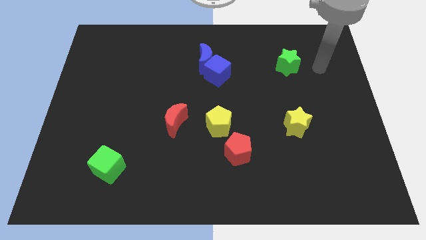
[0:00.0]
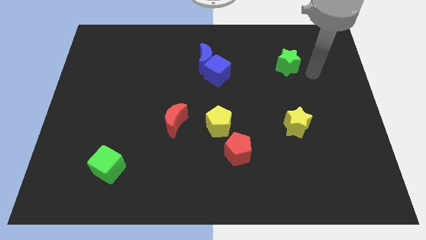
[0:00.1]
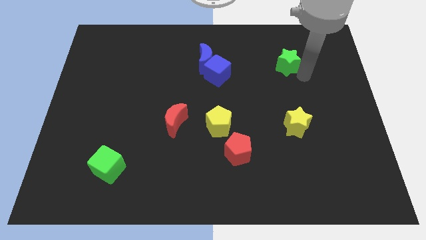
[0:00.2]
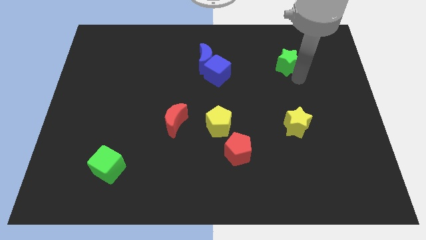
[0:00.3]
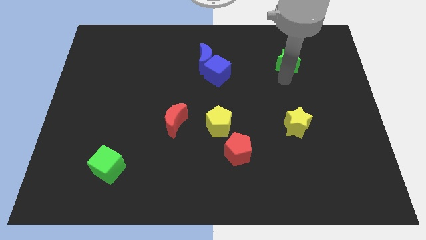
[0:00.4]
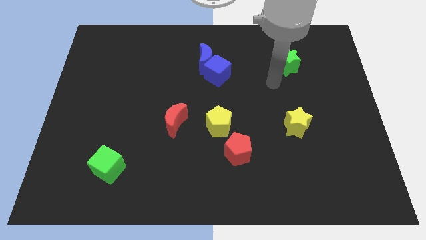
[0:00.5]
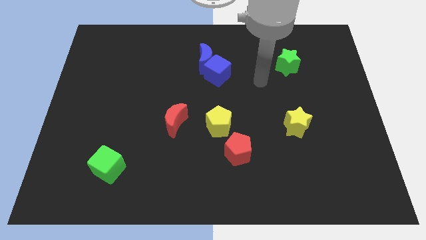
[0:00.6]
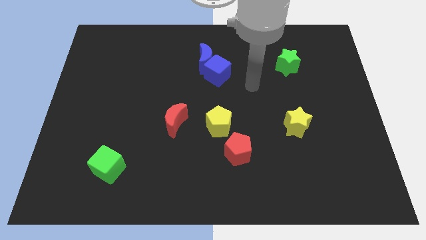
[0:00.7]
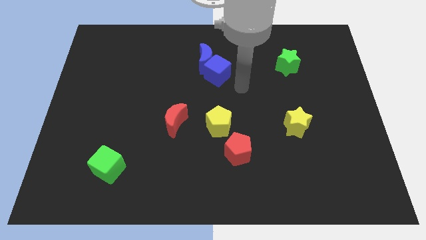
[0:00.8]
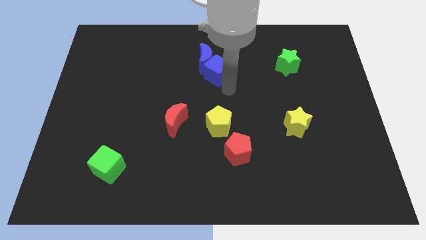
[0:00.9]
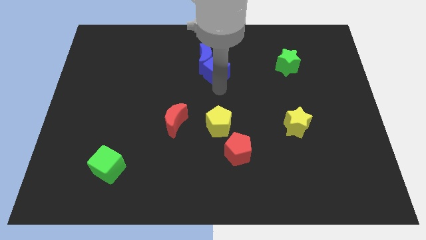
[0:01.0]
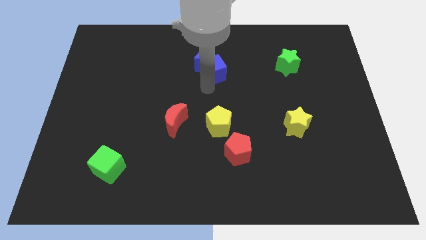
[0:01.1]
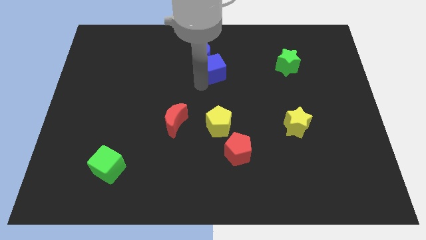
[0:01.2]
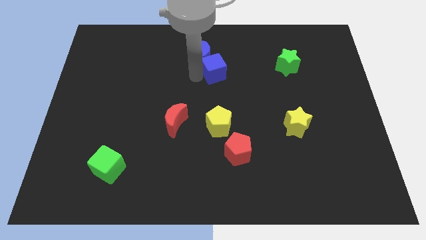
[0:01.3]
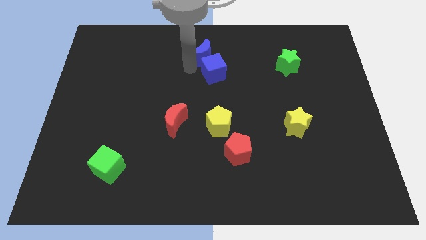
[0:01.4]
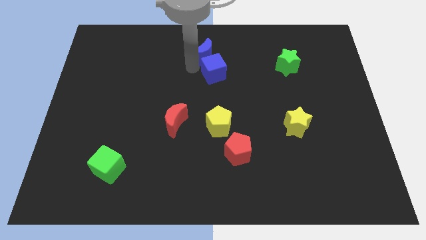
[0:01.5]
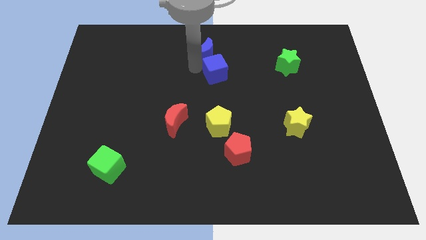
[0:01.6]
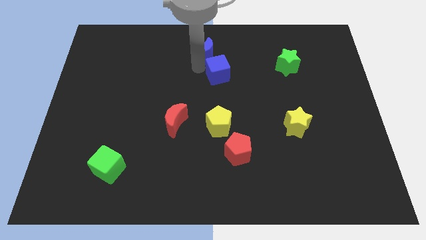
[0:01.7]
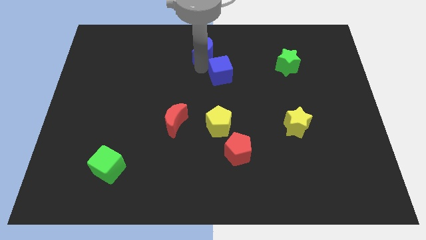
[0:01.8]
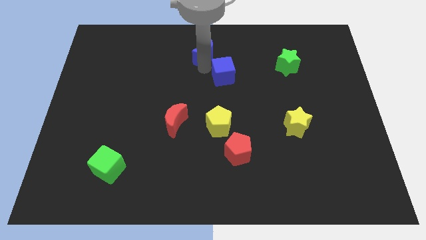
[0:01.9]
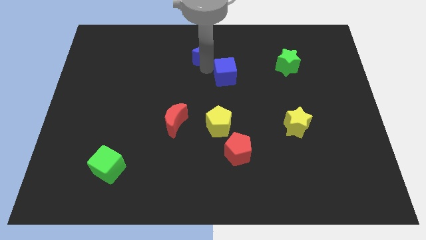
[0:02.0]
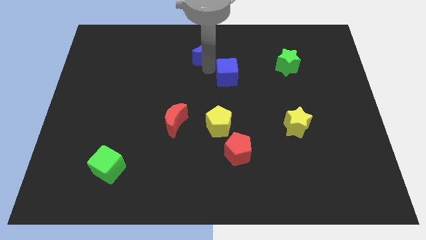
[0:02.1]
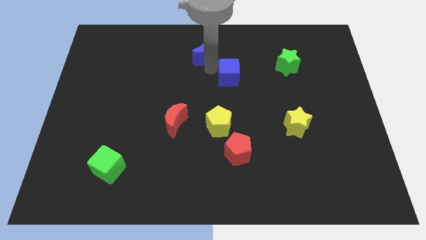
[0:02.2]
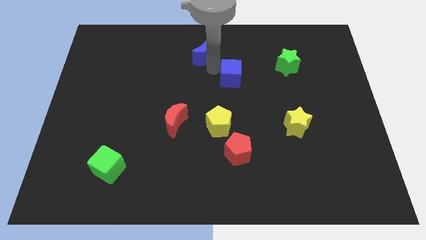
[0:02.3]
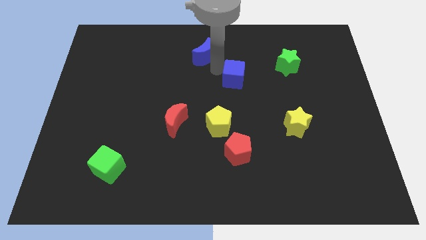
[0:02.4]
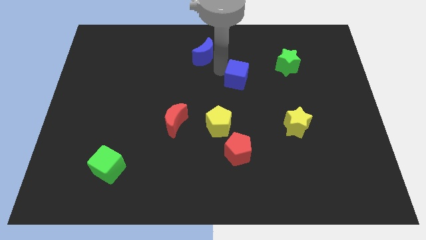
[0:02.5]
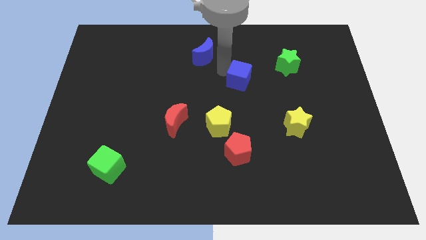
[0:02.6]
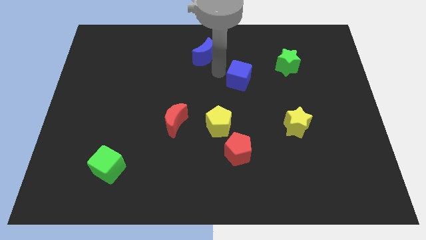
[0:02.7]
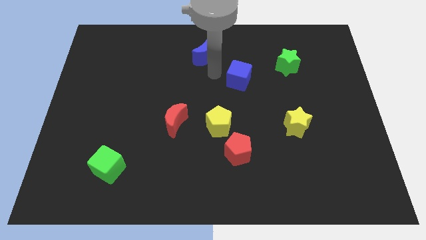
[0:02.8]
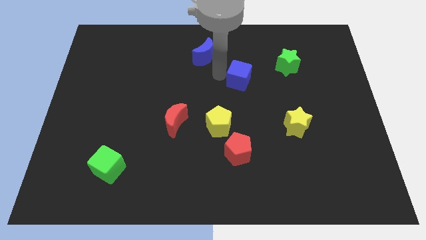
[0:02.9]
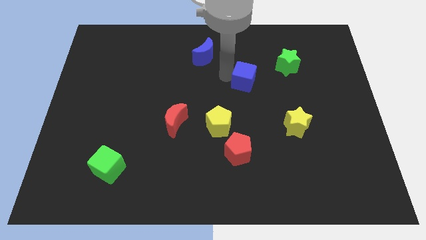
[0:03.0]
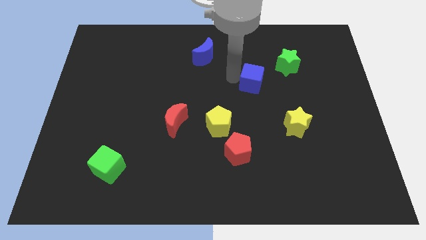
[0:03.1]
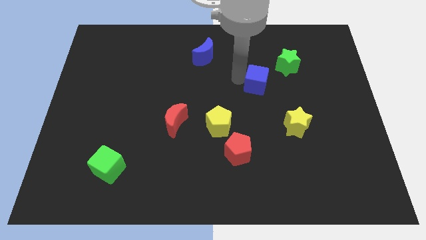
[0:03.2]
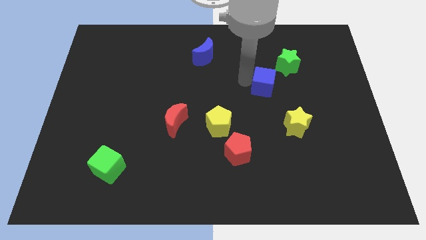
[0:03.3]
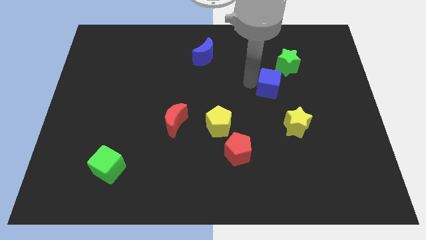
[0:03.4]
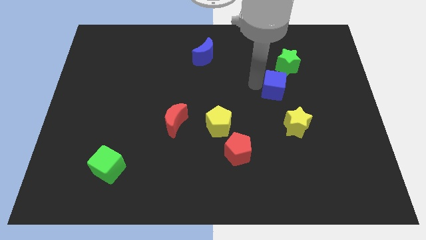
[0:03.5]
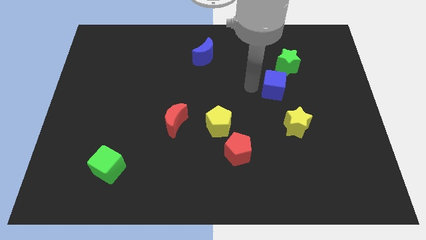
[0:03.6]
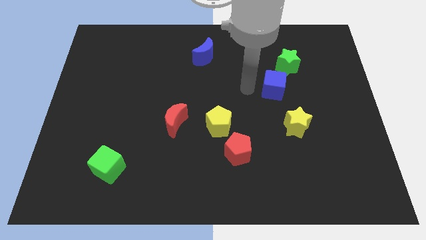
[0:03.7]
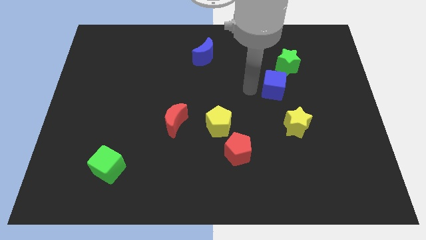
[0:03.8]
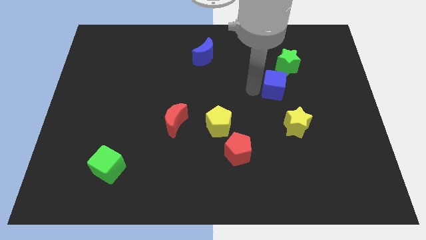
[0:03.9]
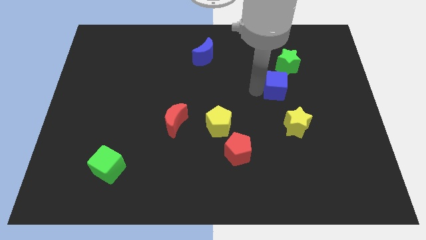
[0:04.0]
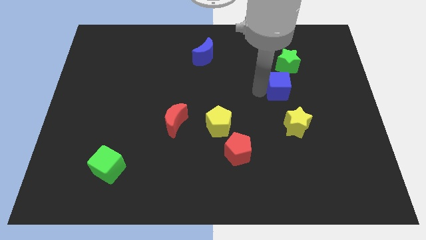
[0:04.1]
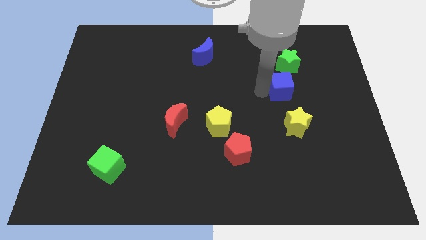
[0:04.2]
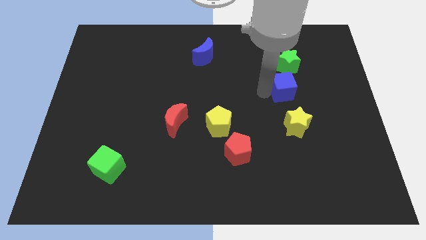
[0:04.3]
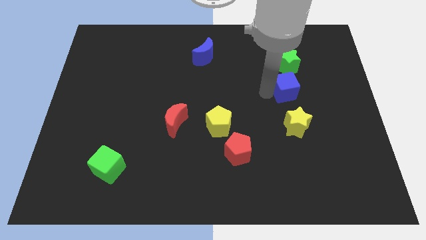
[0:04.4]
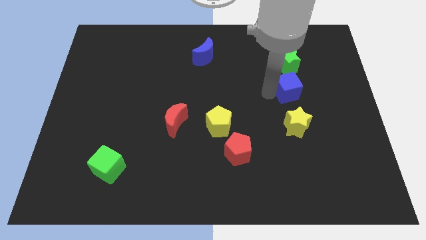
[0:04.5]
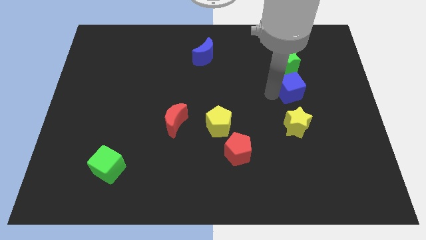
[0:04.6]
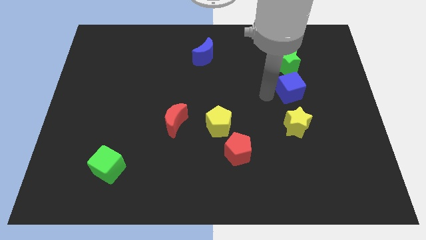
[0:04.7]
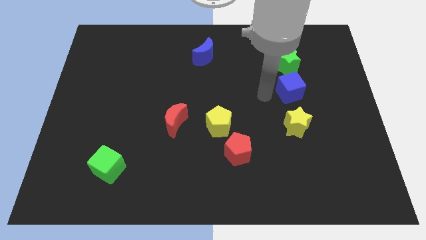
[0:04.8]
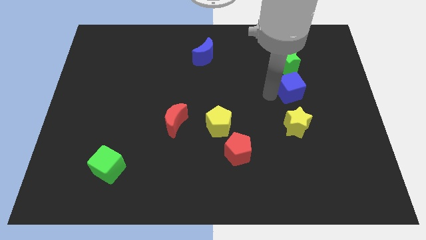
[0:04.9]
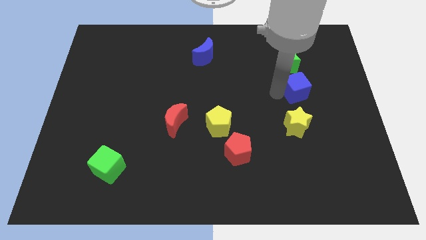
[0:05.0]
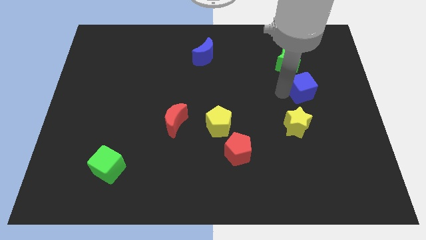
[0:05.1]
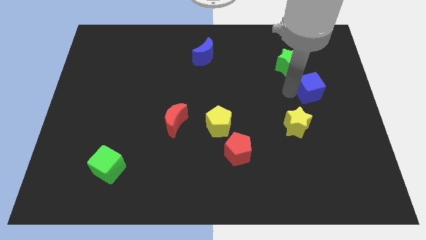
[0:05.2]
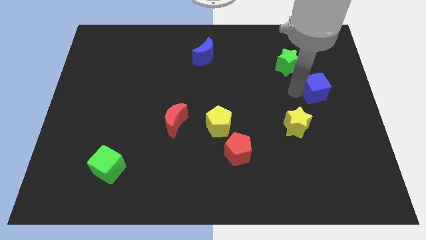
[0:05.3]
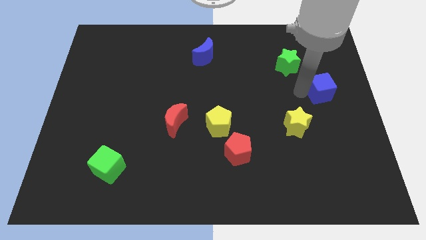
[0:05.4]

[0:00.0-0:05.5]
put the blue cube to the right side

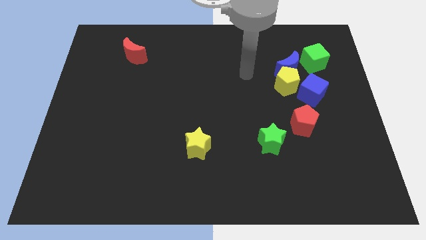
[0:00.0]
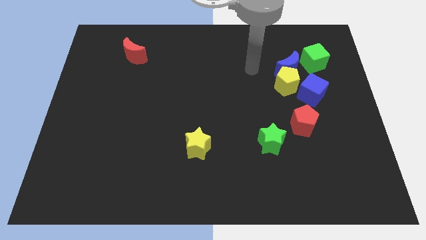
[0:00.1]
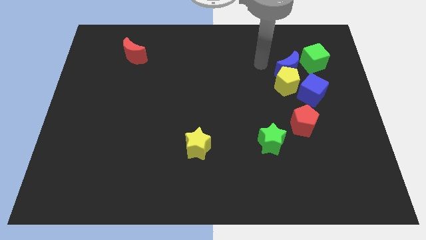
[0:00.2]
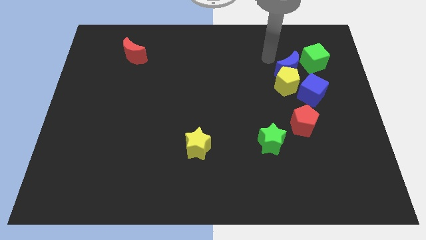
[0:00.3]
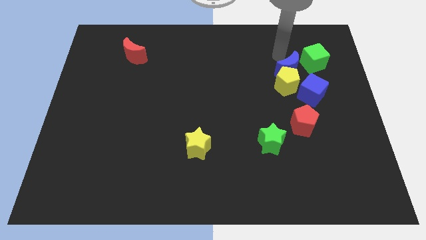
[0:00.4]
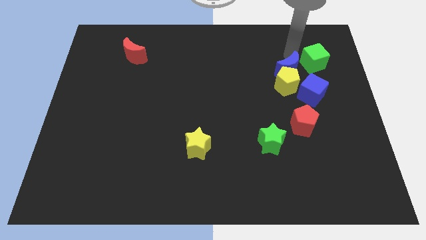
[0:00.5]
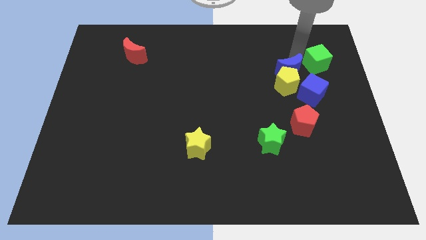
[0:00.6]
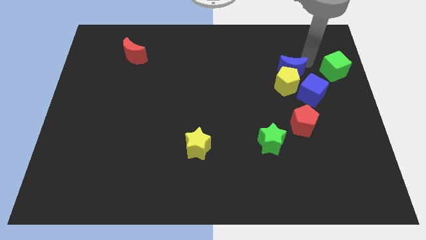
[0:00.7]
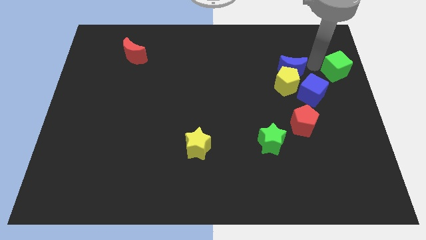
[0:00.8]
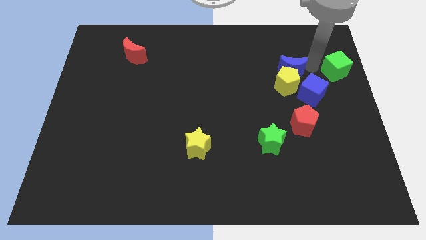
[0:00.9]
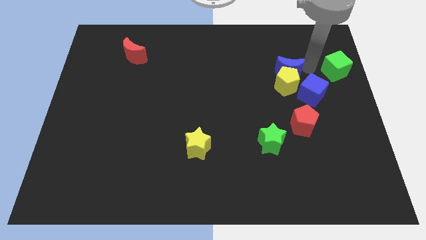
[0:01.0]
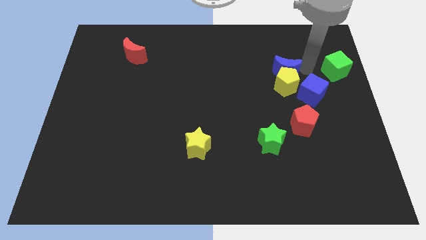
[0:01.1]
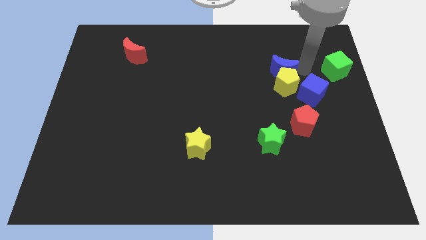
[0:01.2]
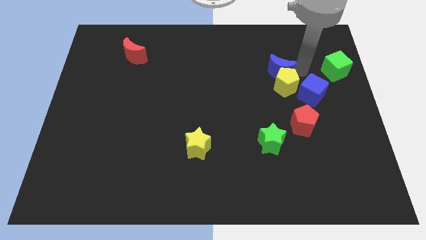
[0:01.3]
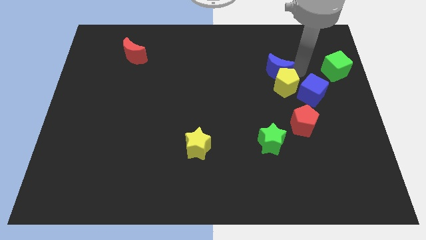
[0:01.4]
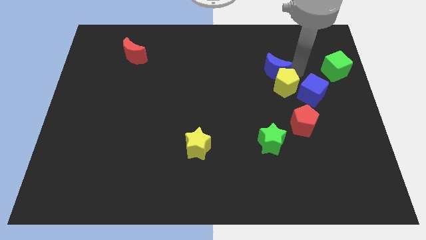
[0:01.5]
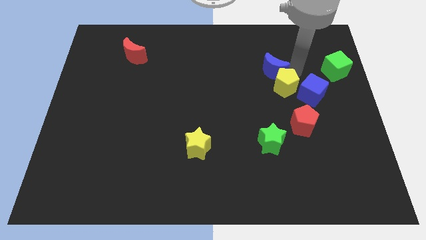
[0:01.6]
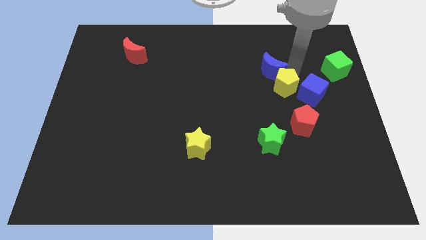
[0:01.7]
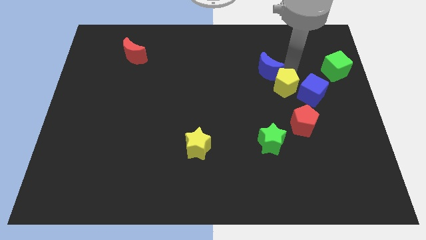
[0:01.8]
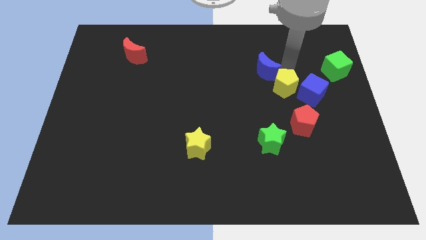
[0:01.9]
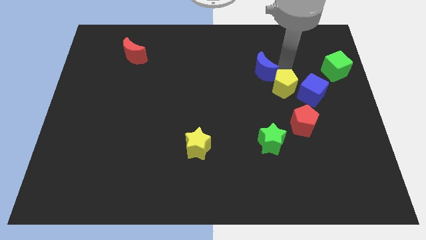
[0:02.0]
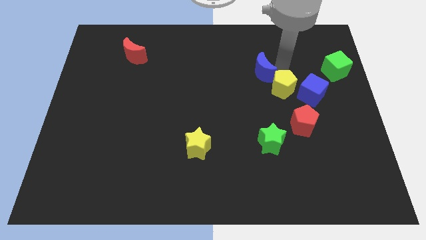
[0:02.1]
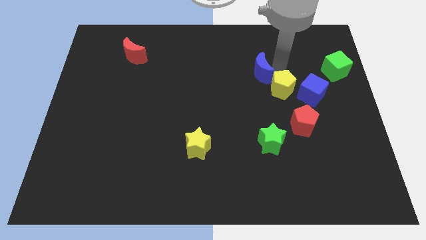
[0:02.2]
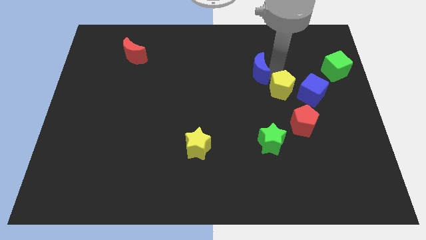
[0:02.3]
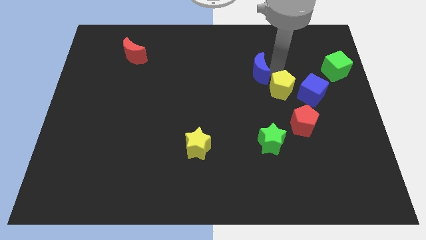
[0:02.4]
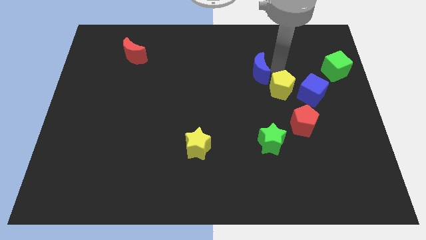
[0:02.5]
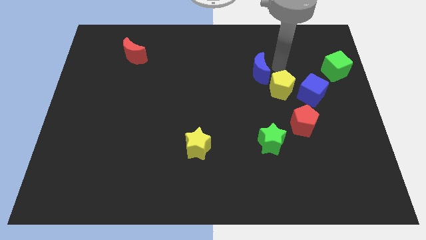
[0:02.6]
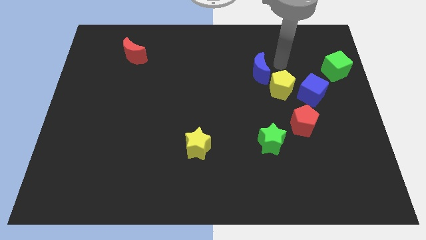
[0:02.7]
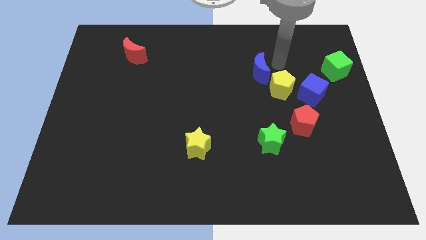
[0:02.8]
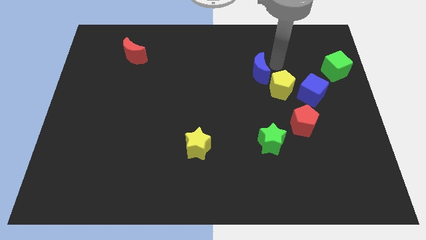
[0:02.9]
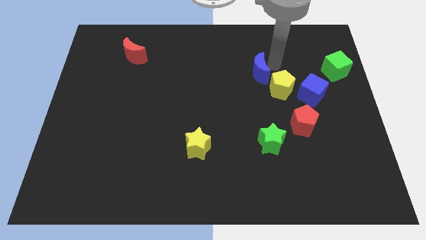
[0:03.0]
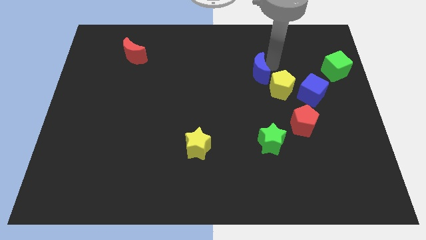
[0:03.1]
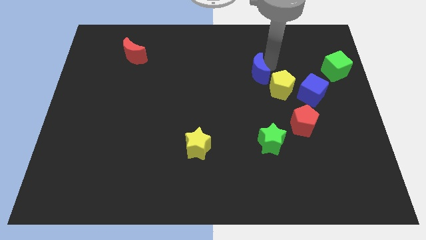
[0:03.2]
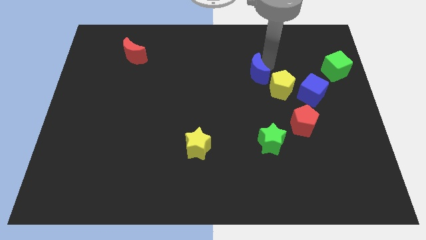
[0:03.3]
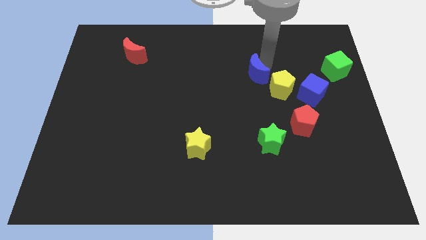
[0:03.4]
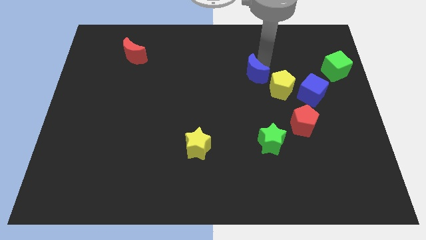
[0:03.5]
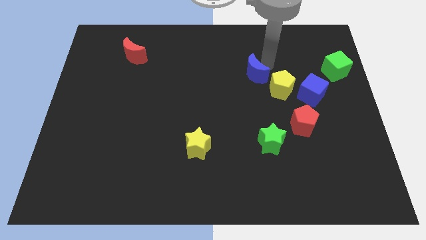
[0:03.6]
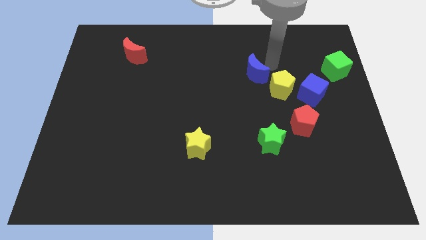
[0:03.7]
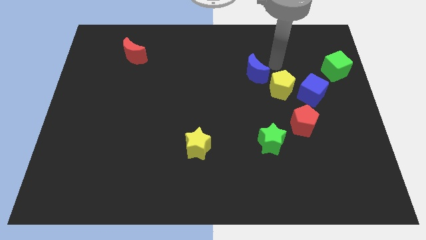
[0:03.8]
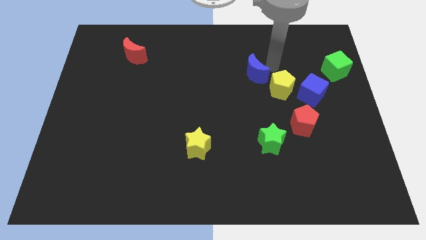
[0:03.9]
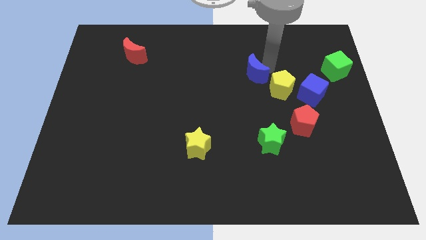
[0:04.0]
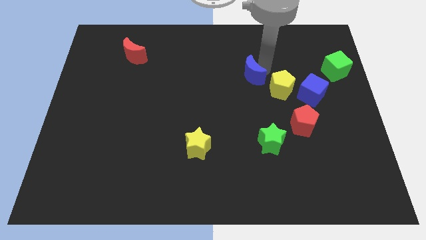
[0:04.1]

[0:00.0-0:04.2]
push the blue moon to the center
